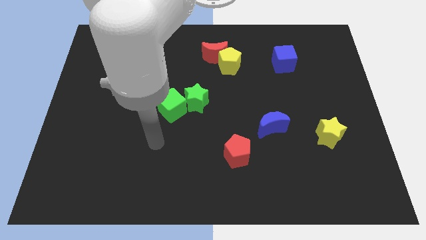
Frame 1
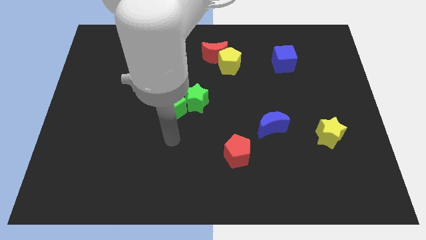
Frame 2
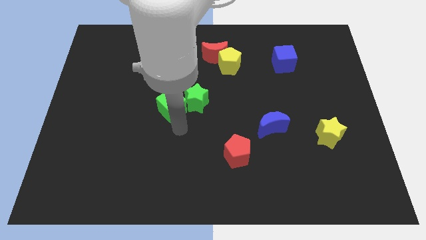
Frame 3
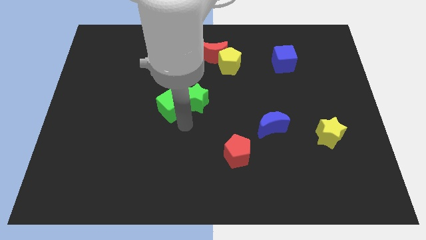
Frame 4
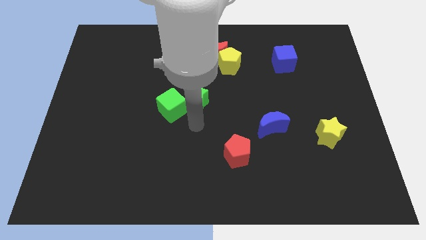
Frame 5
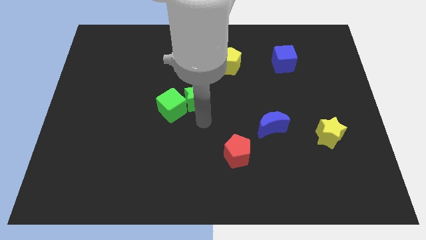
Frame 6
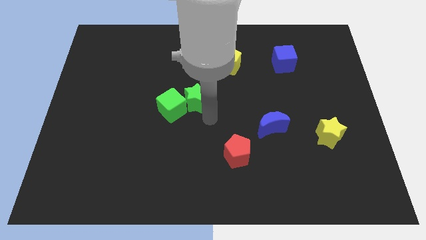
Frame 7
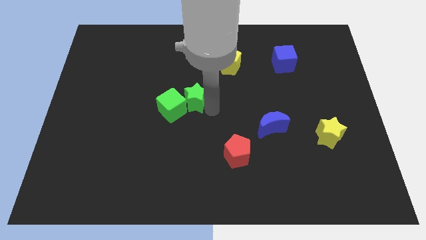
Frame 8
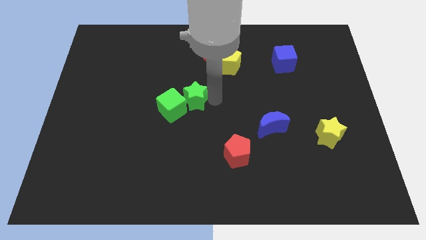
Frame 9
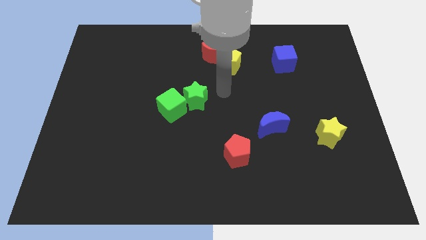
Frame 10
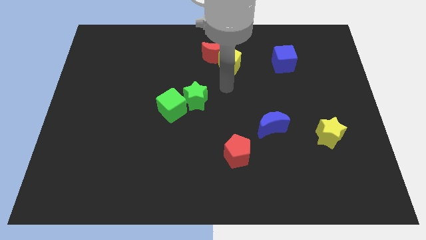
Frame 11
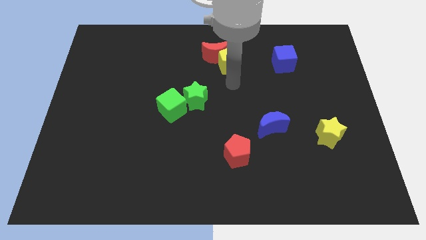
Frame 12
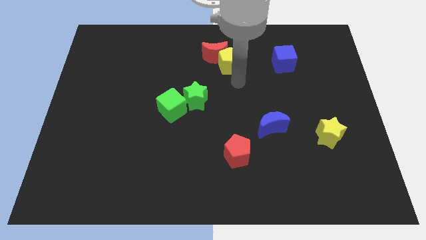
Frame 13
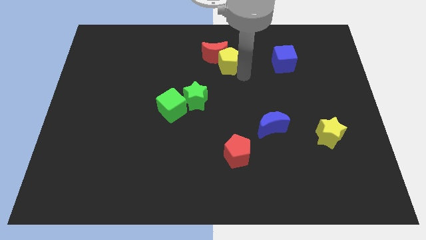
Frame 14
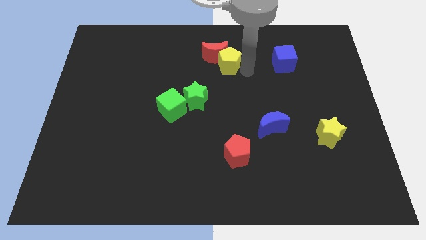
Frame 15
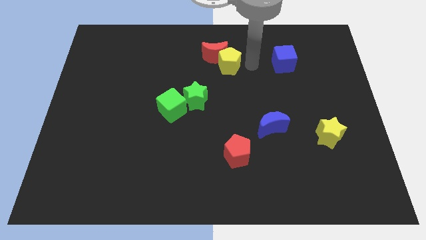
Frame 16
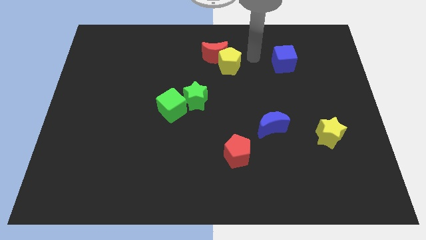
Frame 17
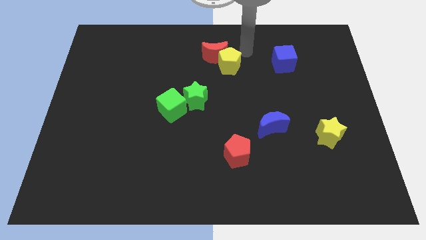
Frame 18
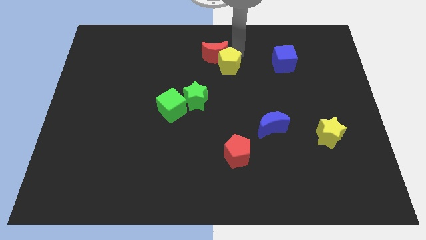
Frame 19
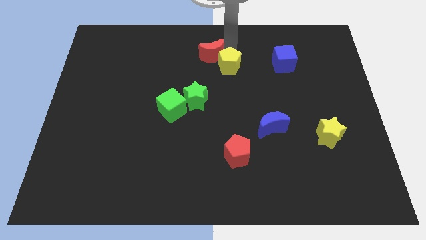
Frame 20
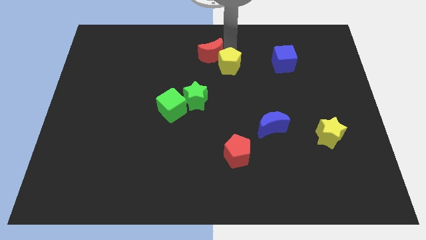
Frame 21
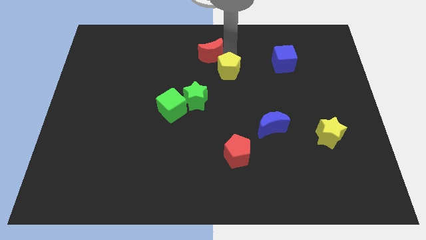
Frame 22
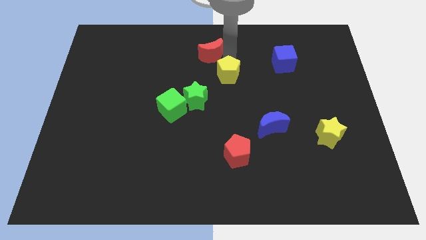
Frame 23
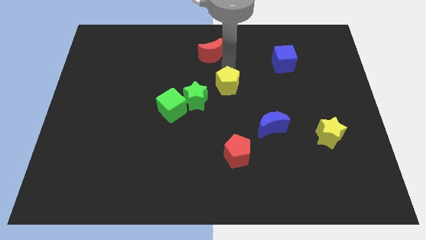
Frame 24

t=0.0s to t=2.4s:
slide the yellow pentagon downwards a little

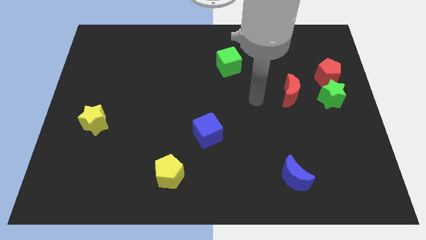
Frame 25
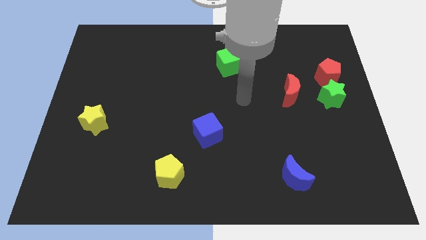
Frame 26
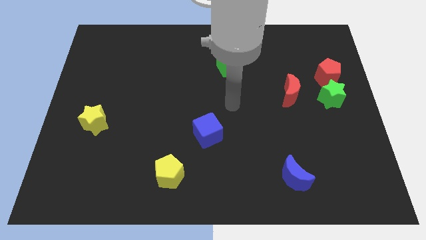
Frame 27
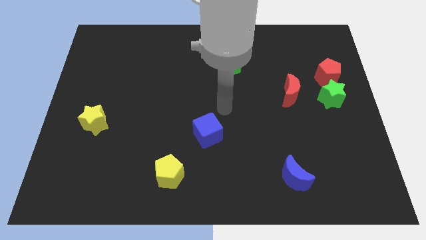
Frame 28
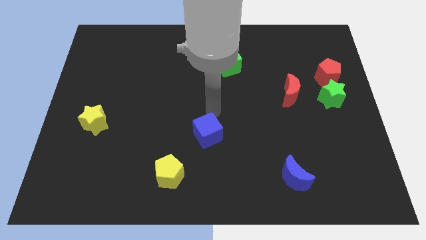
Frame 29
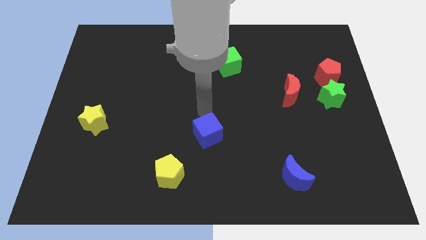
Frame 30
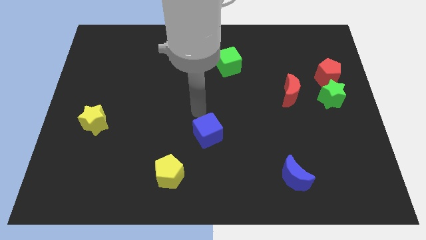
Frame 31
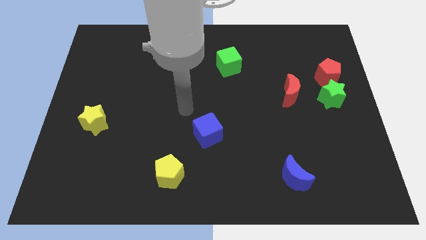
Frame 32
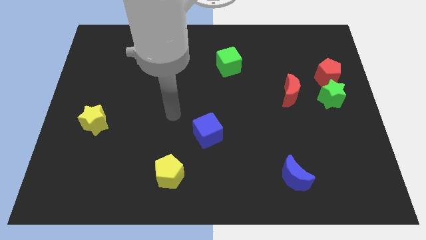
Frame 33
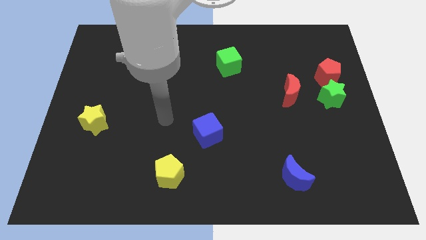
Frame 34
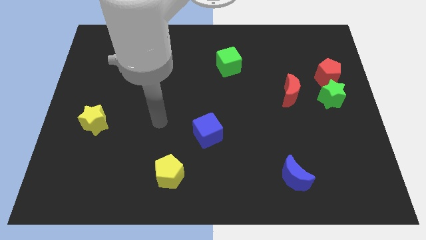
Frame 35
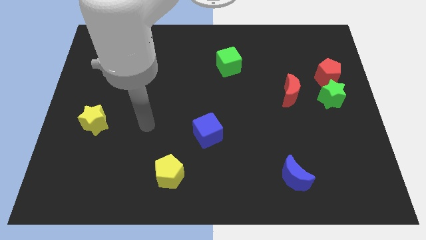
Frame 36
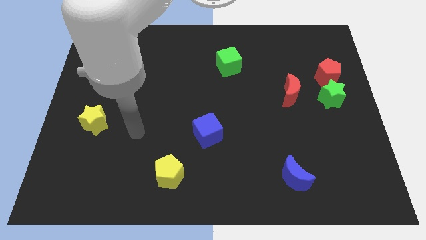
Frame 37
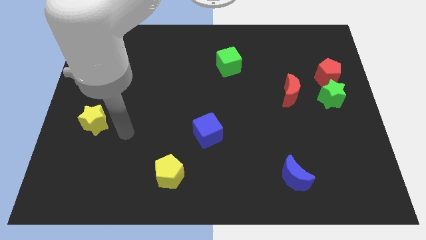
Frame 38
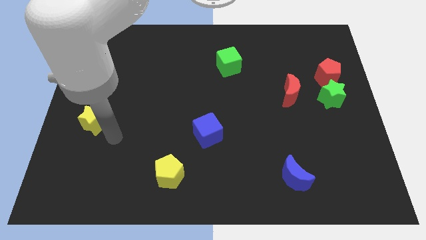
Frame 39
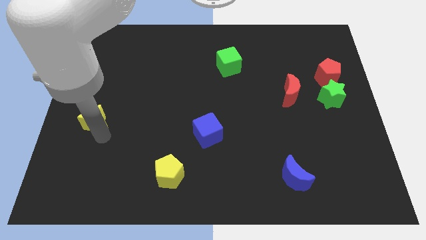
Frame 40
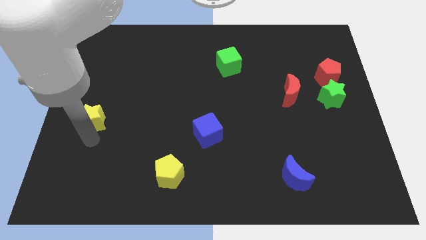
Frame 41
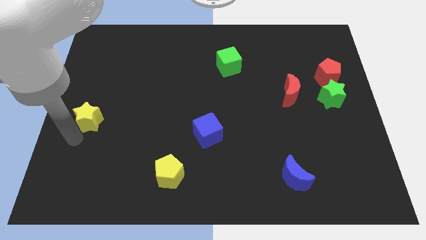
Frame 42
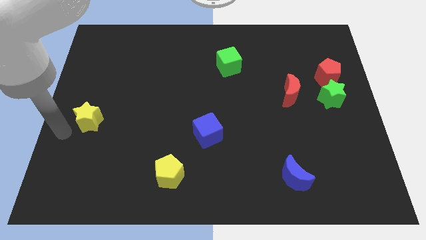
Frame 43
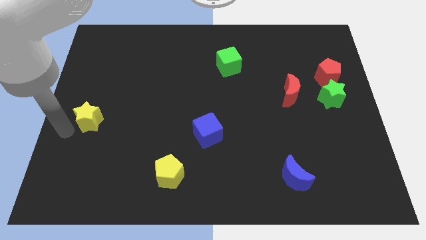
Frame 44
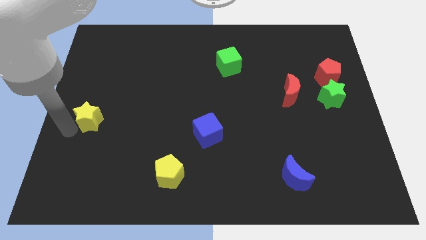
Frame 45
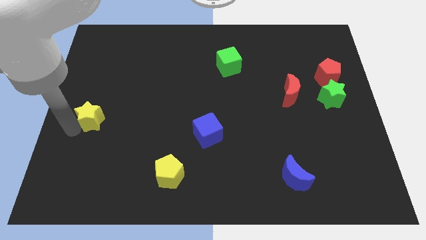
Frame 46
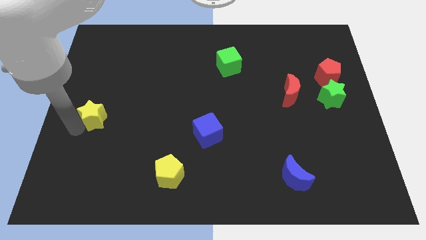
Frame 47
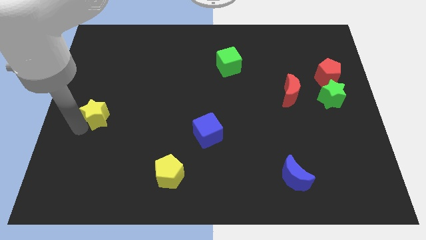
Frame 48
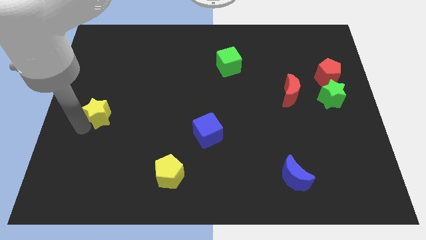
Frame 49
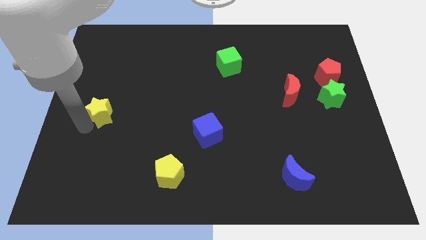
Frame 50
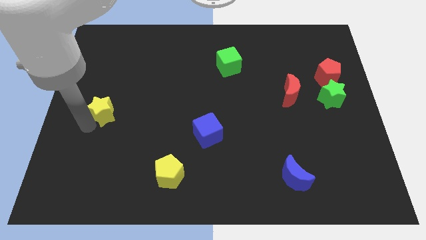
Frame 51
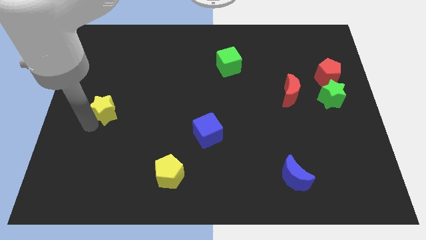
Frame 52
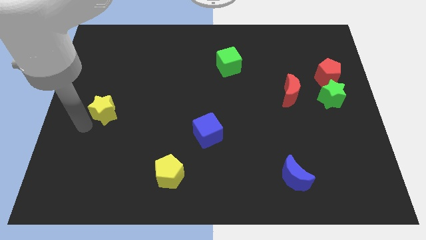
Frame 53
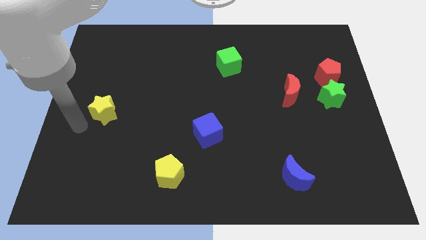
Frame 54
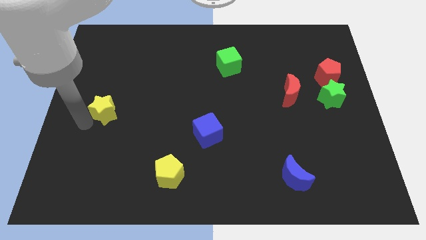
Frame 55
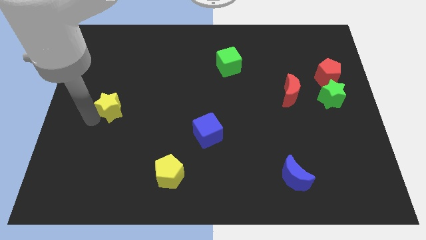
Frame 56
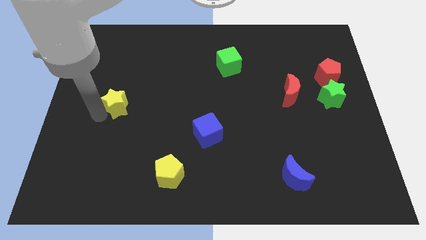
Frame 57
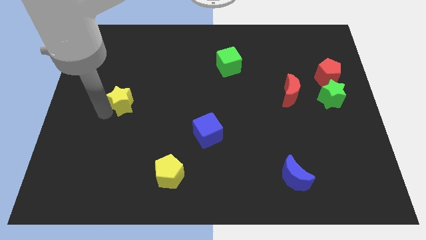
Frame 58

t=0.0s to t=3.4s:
push the yellow star a little bit upwards and right diagonally

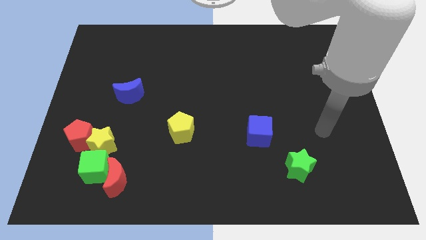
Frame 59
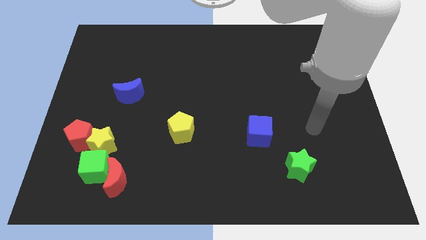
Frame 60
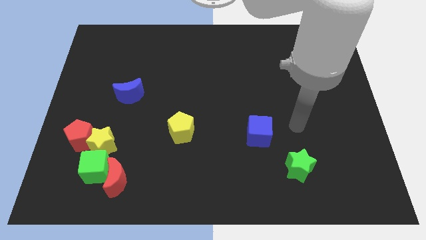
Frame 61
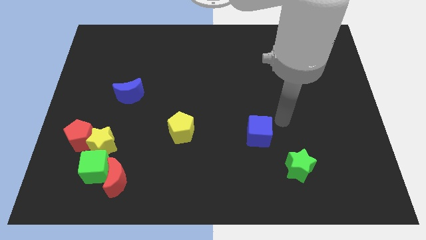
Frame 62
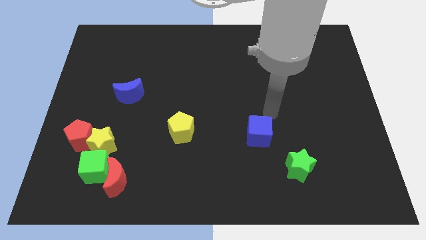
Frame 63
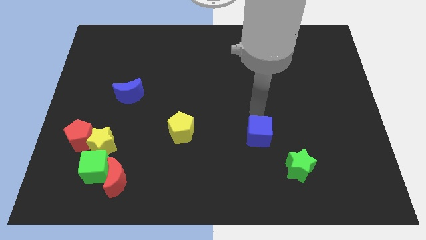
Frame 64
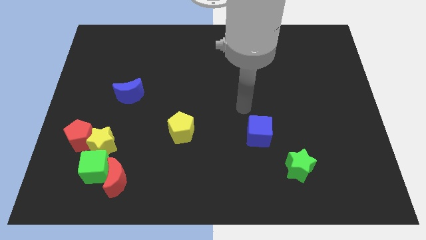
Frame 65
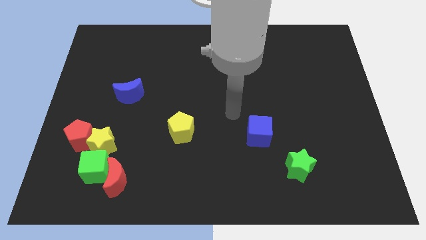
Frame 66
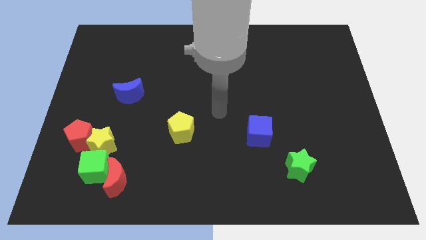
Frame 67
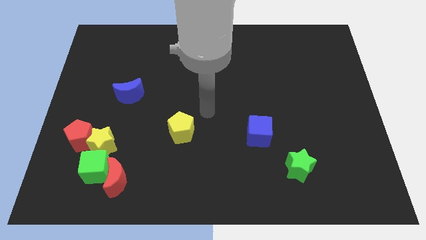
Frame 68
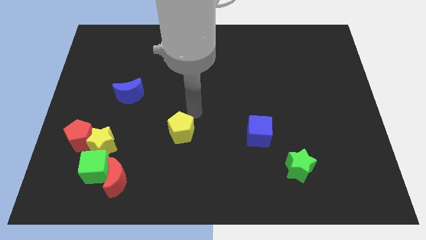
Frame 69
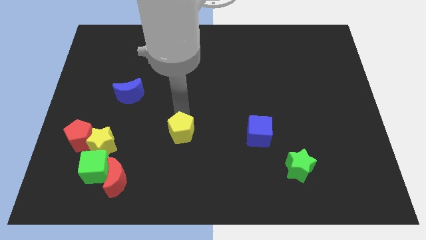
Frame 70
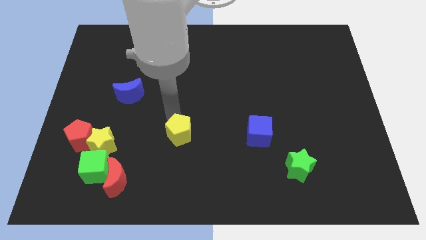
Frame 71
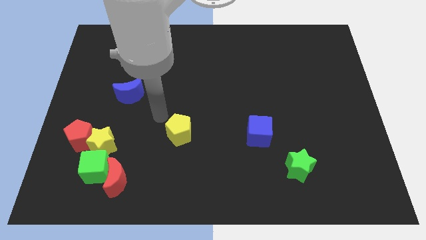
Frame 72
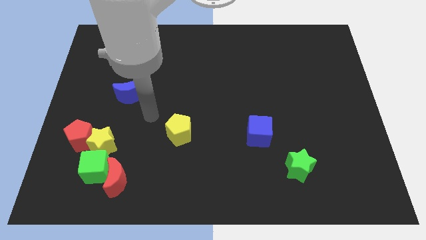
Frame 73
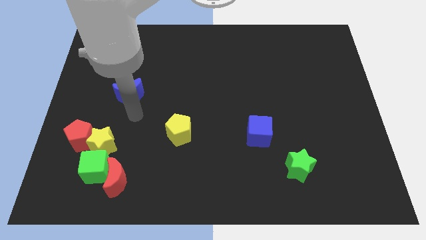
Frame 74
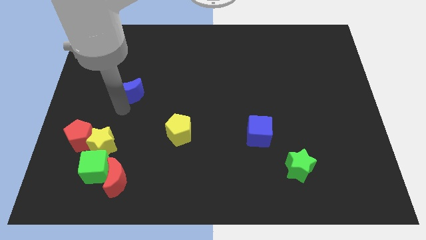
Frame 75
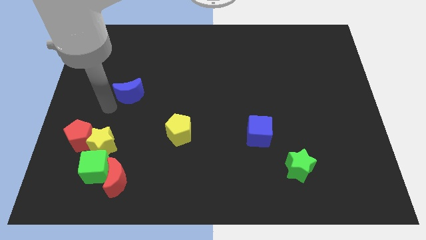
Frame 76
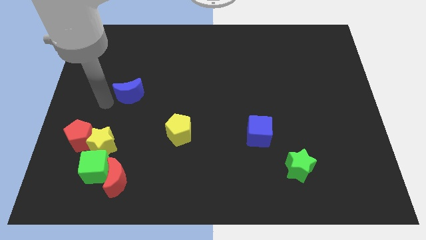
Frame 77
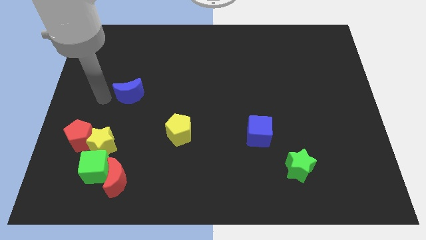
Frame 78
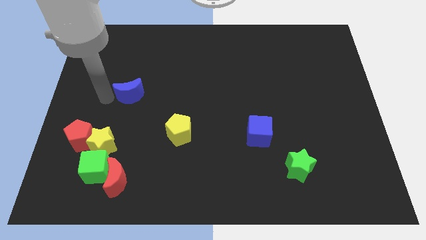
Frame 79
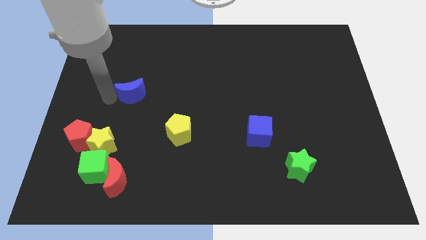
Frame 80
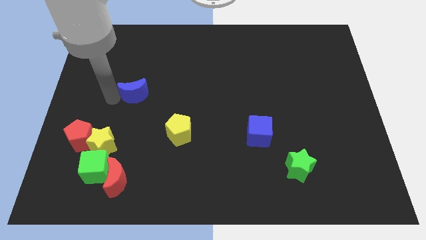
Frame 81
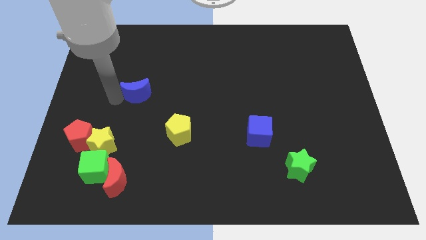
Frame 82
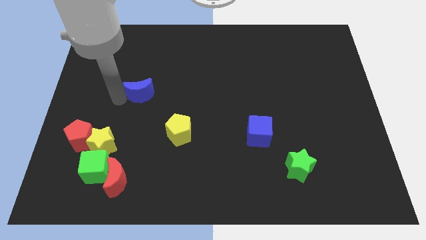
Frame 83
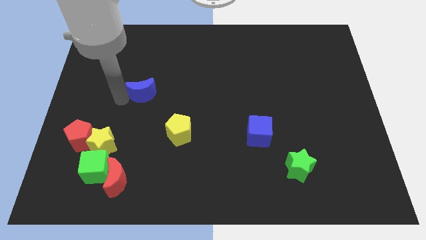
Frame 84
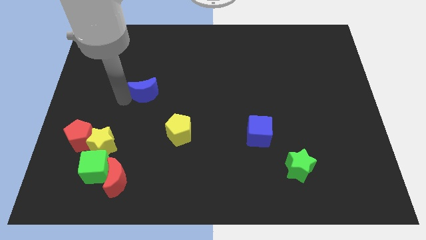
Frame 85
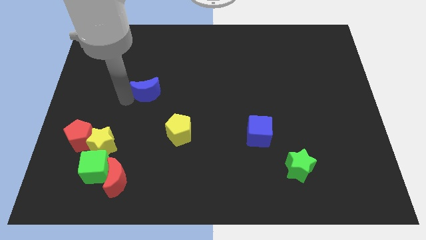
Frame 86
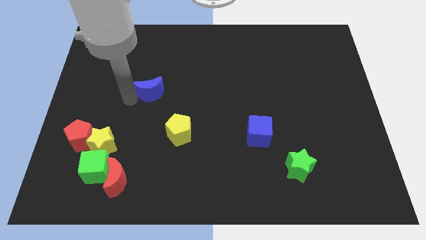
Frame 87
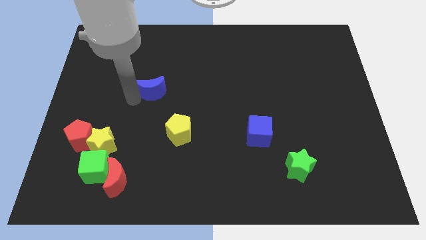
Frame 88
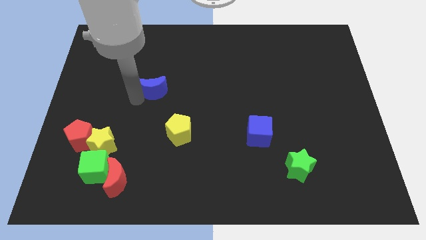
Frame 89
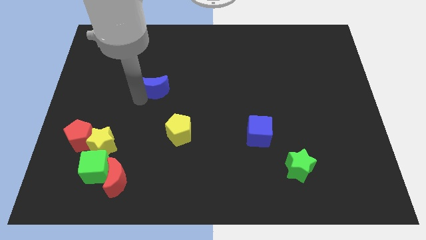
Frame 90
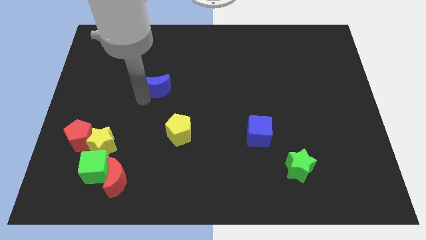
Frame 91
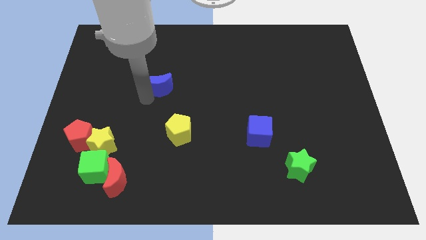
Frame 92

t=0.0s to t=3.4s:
slightly slide the blue moon to the right
